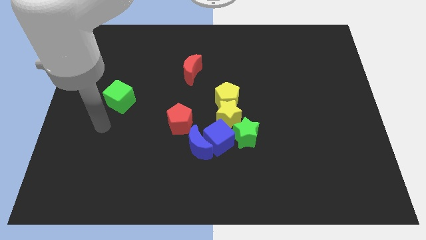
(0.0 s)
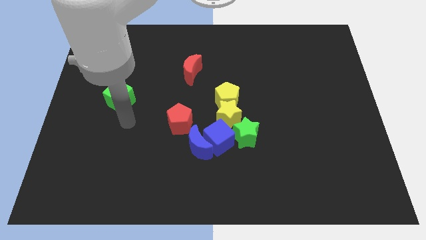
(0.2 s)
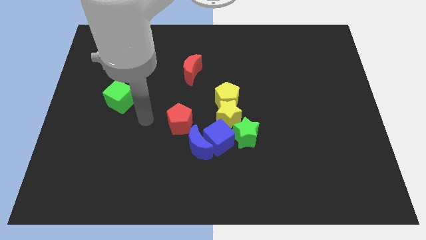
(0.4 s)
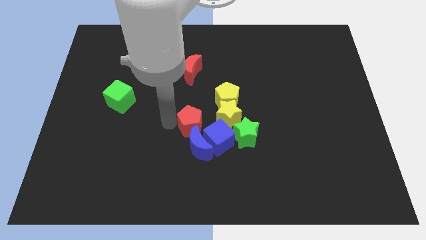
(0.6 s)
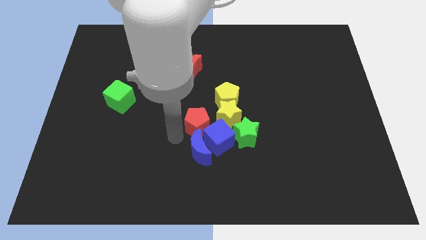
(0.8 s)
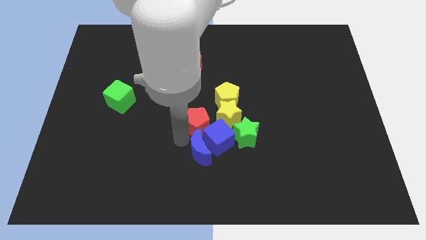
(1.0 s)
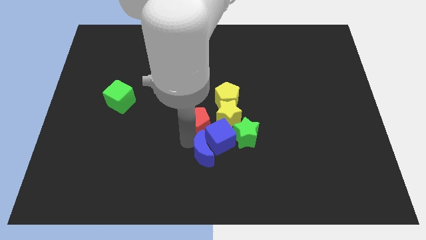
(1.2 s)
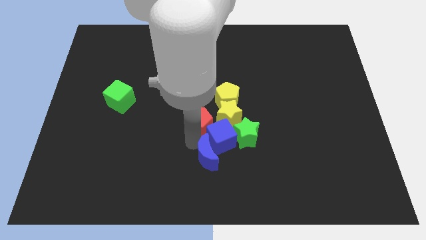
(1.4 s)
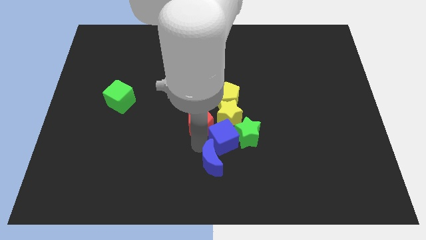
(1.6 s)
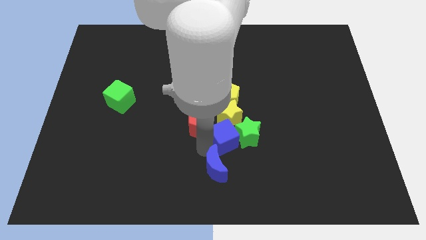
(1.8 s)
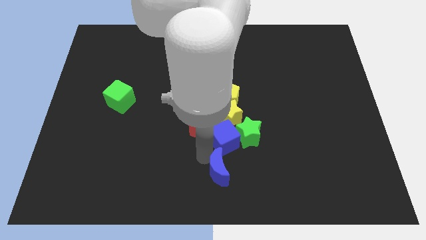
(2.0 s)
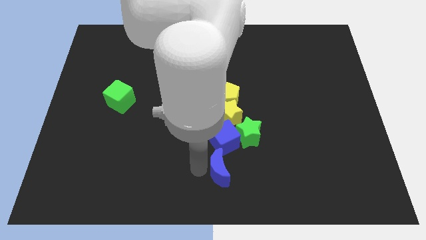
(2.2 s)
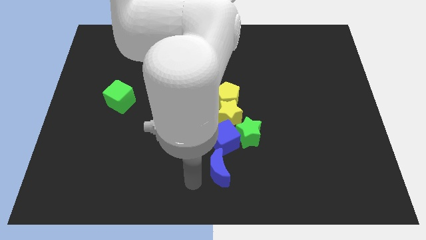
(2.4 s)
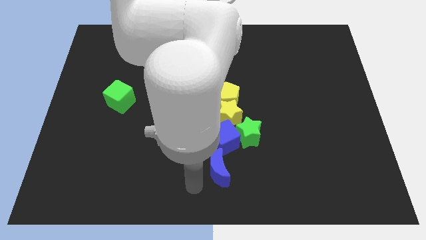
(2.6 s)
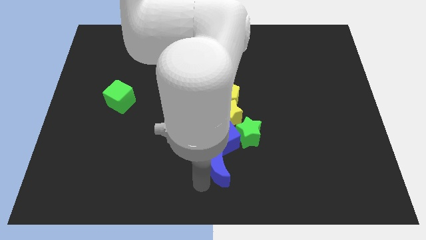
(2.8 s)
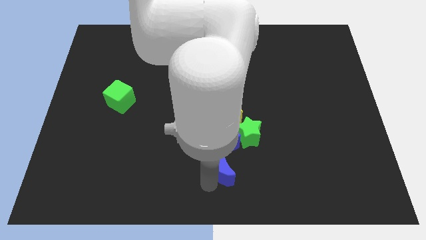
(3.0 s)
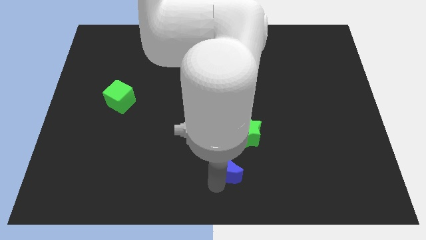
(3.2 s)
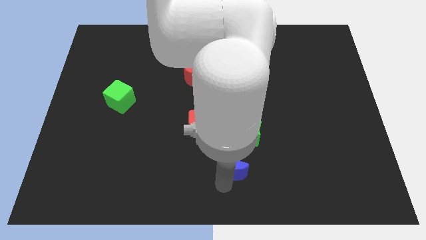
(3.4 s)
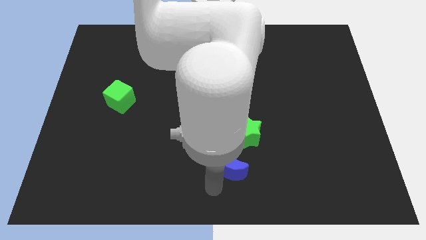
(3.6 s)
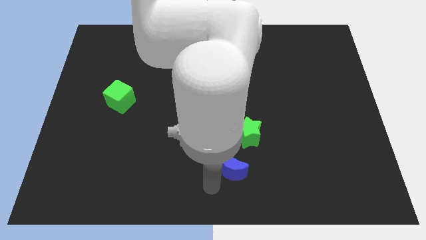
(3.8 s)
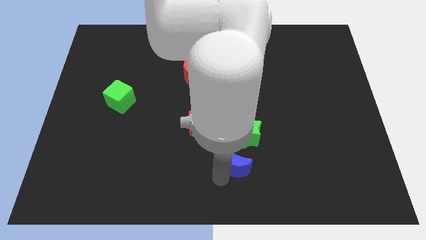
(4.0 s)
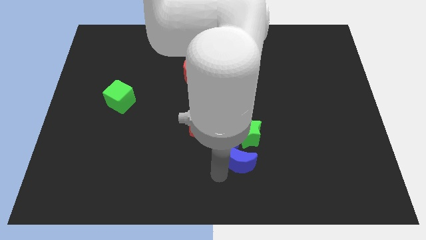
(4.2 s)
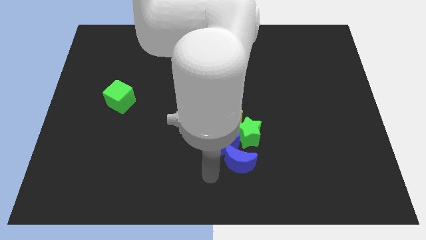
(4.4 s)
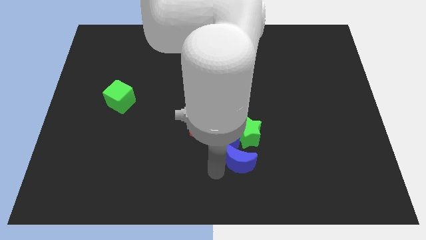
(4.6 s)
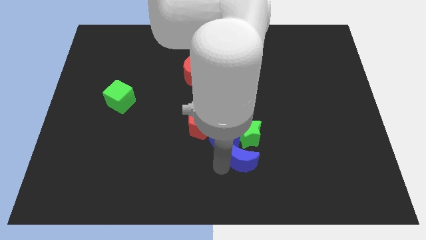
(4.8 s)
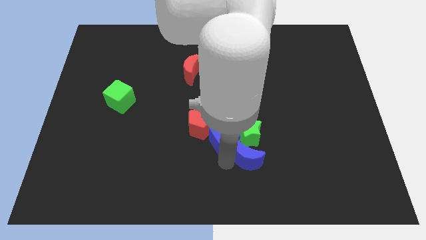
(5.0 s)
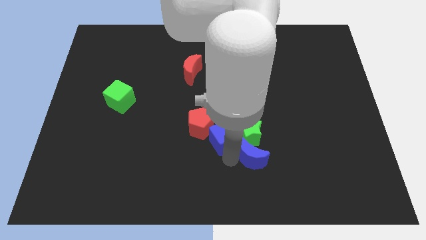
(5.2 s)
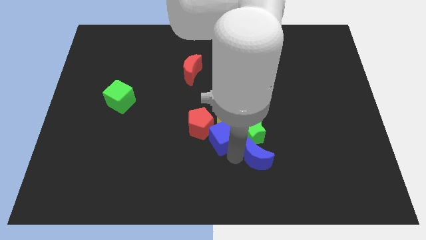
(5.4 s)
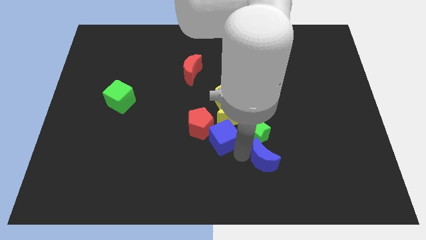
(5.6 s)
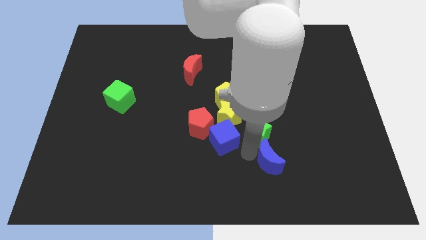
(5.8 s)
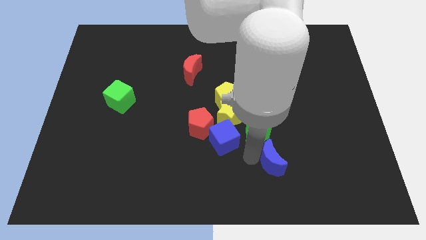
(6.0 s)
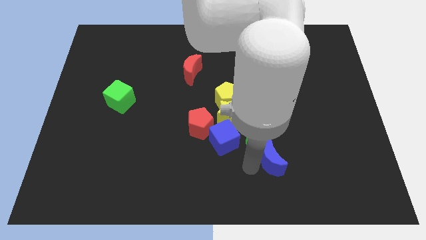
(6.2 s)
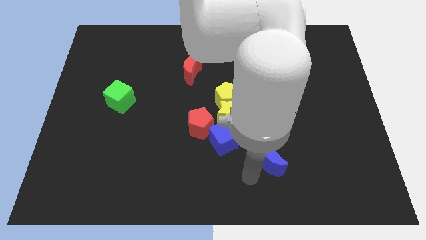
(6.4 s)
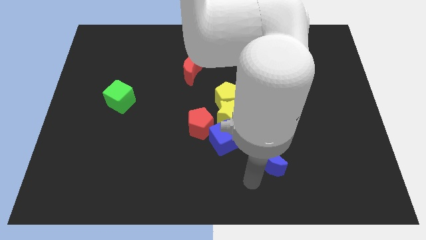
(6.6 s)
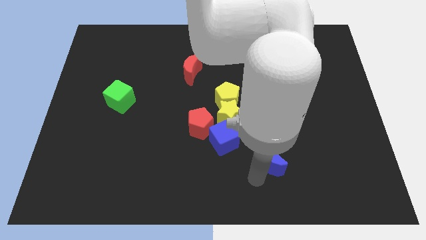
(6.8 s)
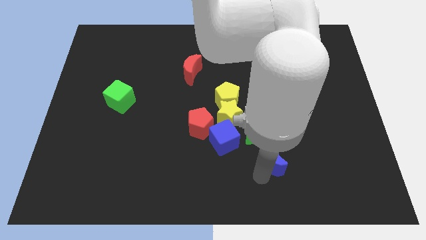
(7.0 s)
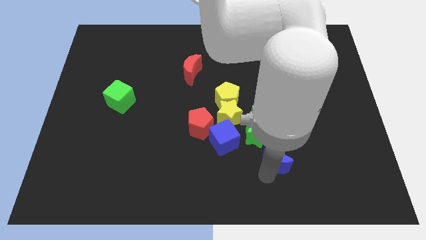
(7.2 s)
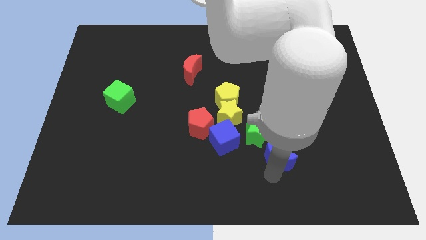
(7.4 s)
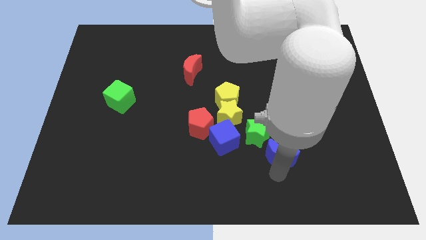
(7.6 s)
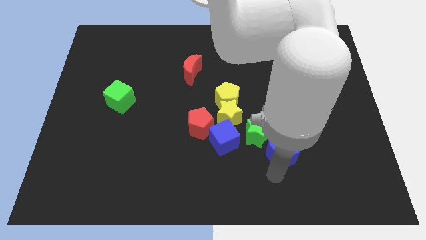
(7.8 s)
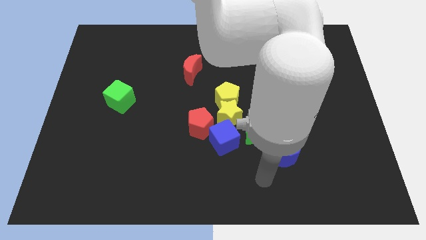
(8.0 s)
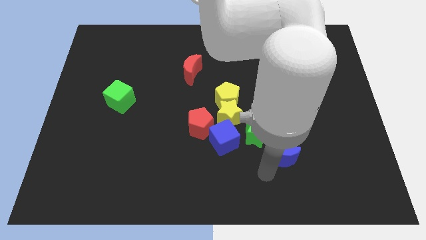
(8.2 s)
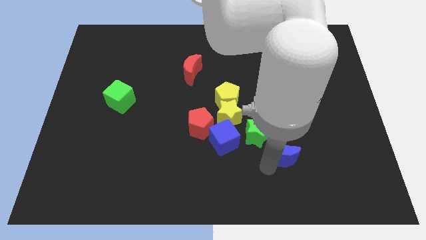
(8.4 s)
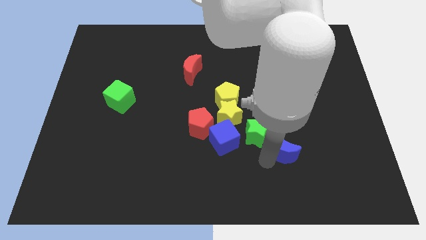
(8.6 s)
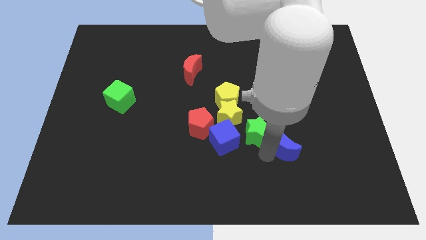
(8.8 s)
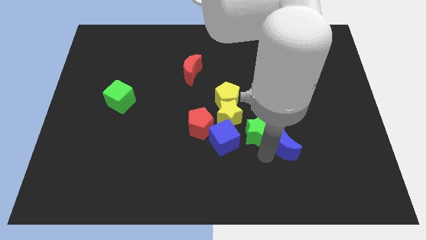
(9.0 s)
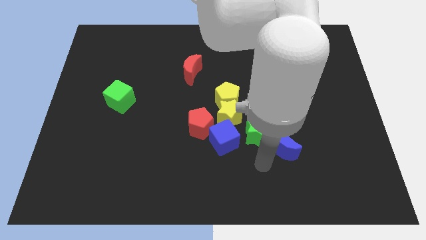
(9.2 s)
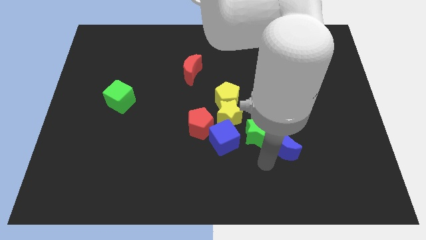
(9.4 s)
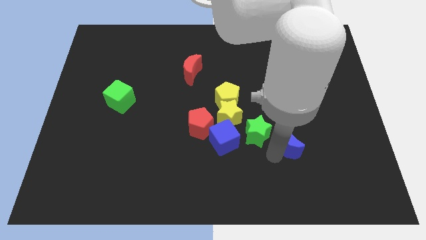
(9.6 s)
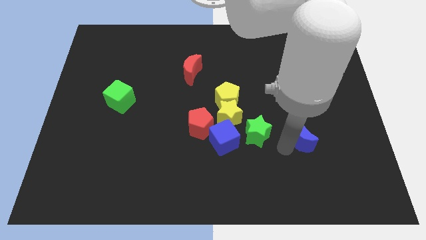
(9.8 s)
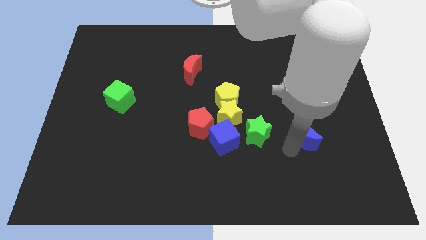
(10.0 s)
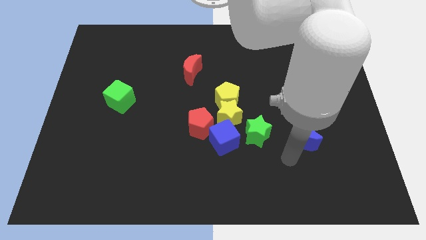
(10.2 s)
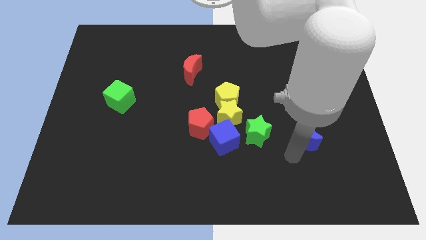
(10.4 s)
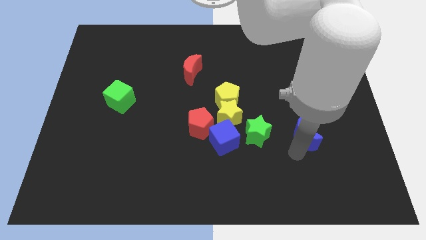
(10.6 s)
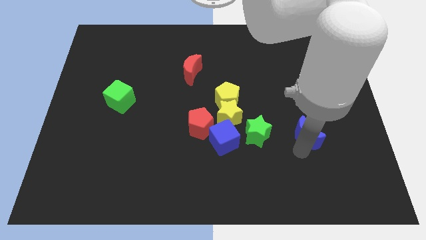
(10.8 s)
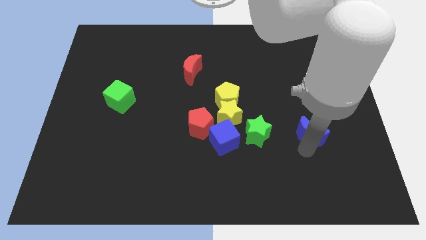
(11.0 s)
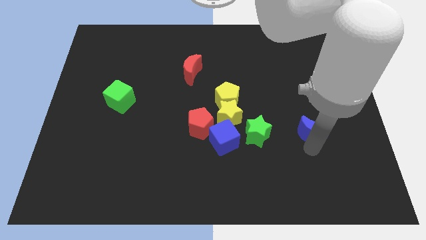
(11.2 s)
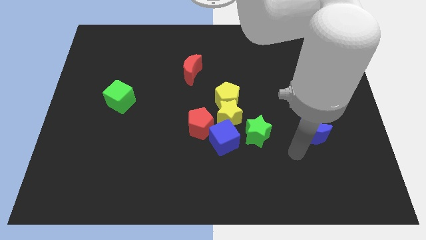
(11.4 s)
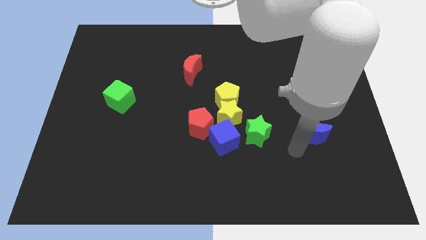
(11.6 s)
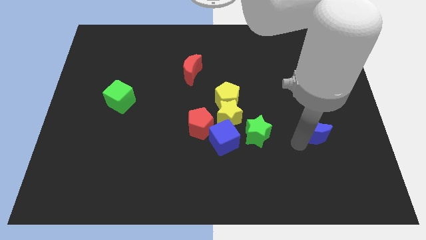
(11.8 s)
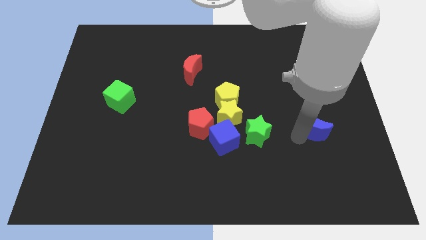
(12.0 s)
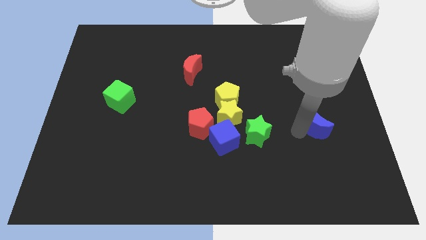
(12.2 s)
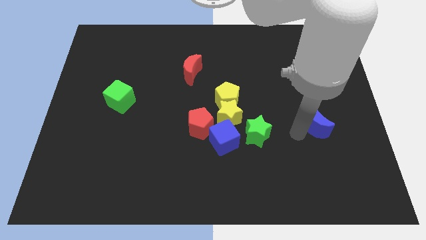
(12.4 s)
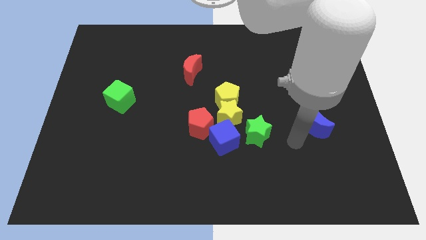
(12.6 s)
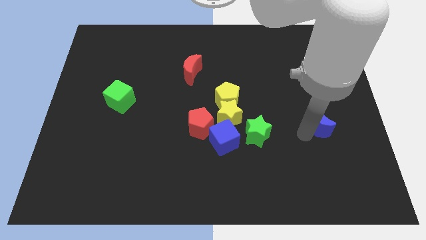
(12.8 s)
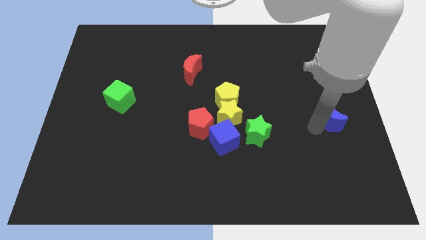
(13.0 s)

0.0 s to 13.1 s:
slide the blue moon to the right side

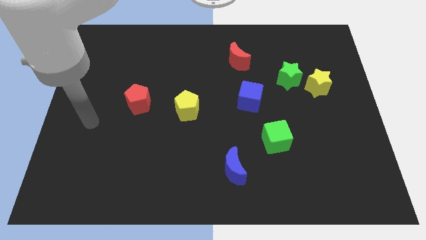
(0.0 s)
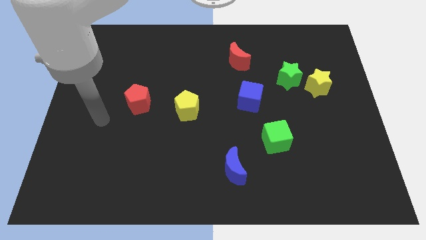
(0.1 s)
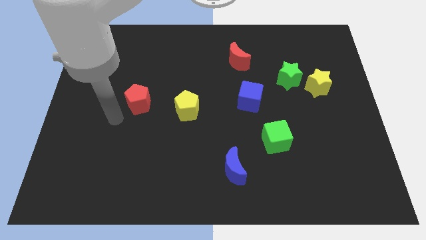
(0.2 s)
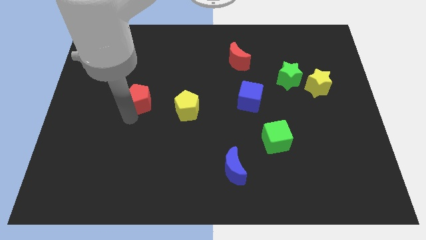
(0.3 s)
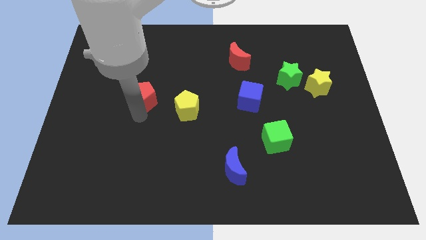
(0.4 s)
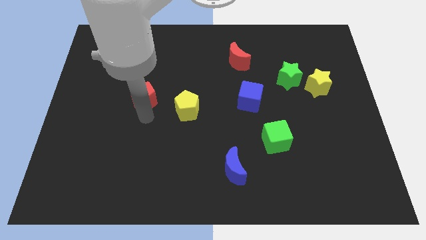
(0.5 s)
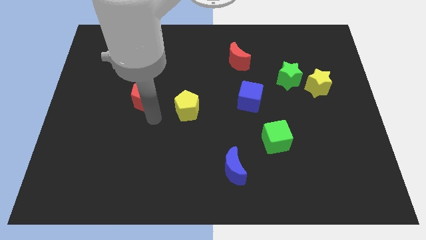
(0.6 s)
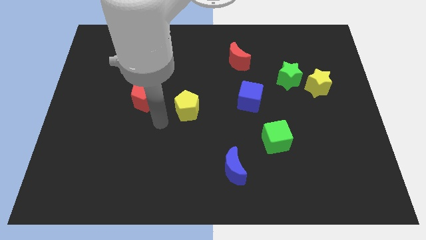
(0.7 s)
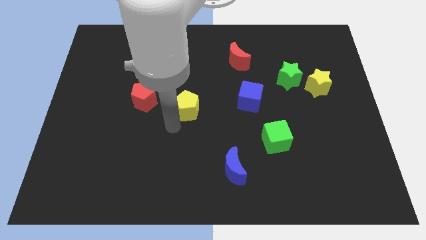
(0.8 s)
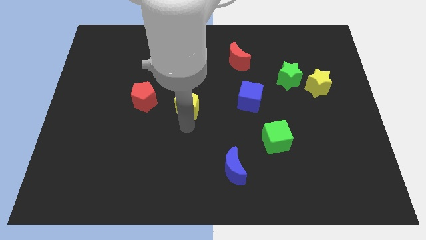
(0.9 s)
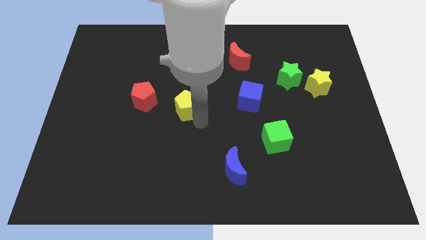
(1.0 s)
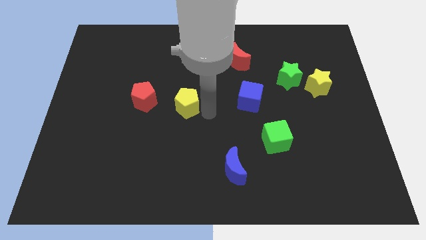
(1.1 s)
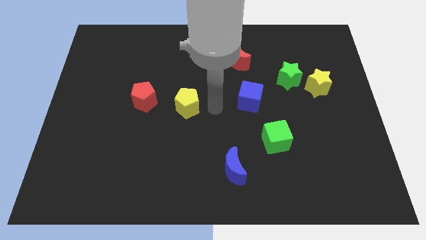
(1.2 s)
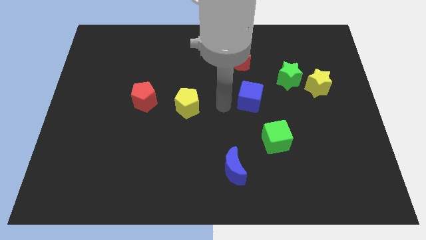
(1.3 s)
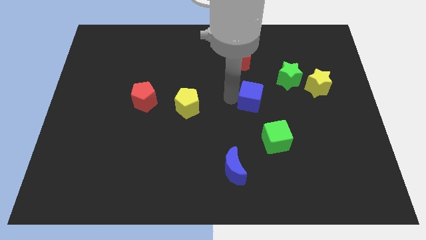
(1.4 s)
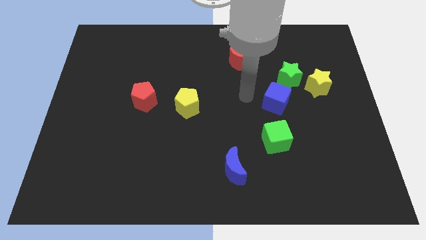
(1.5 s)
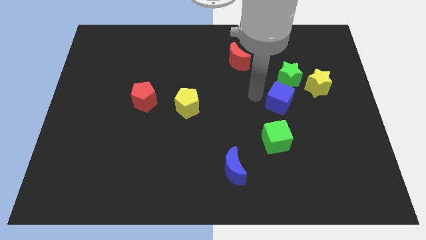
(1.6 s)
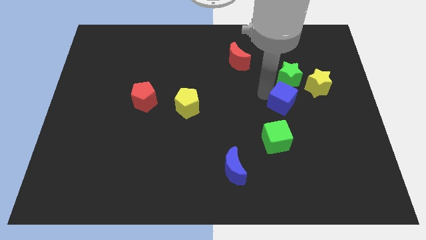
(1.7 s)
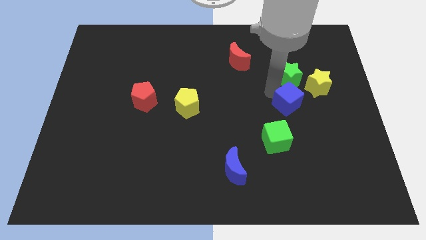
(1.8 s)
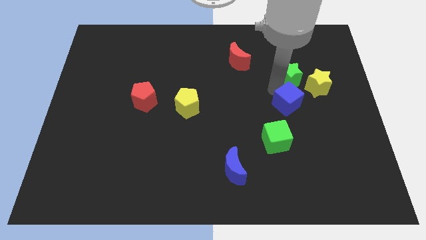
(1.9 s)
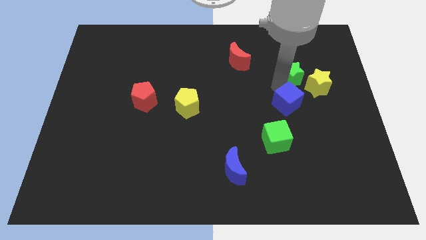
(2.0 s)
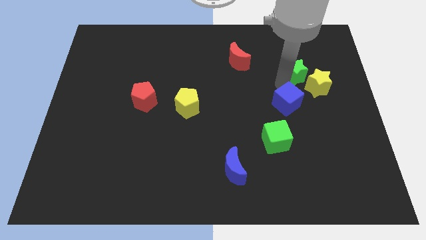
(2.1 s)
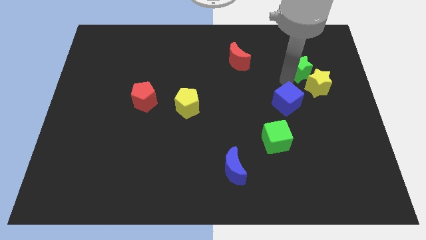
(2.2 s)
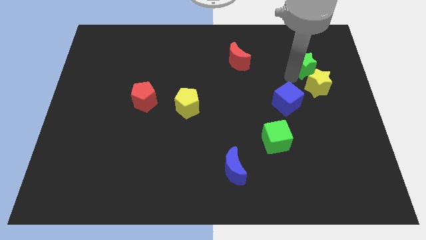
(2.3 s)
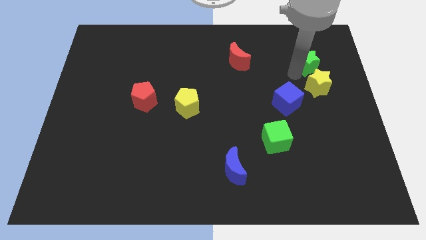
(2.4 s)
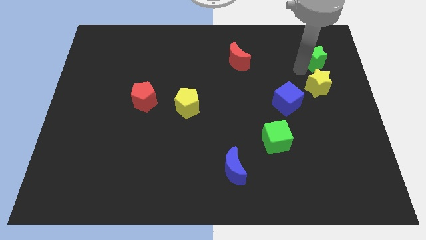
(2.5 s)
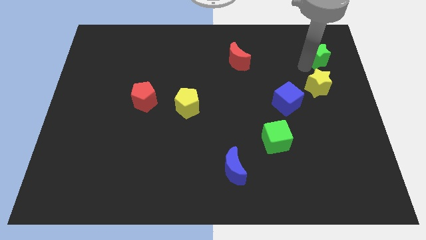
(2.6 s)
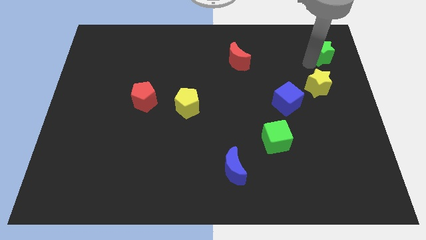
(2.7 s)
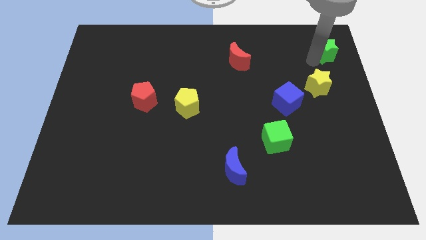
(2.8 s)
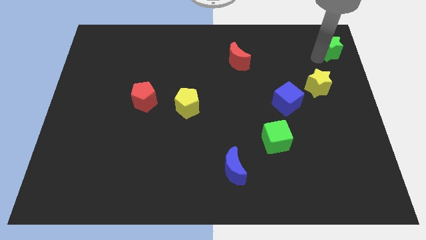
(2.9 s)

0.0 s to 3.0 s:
put the green star to the top right
